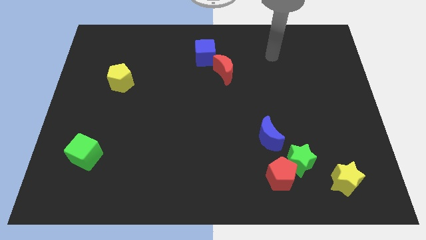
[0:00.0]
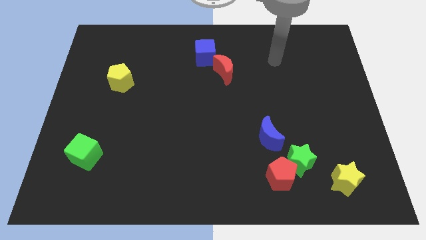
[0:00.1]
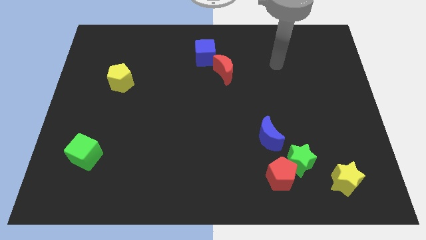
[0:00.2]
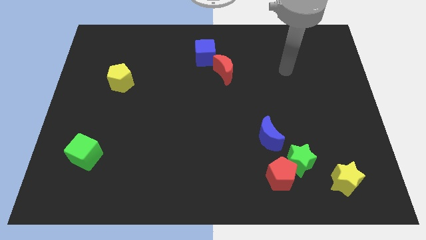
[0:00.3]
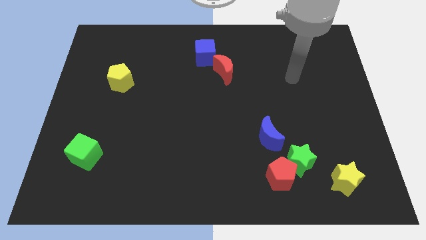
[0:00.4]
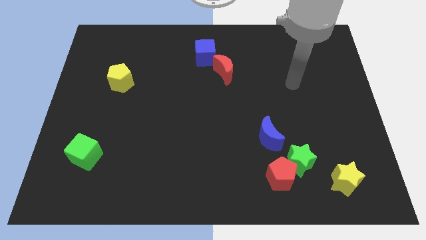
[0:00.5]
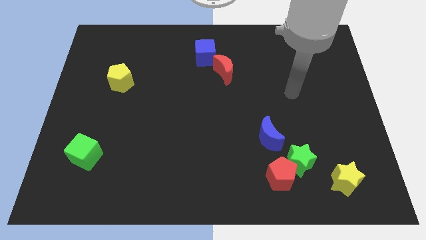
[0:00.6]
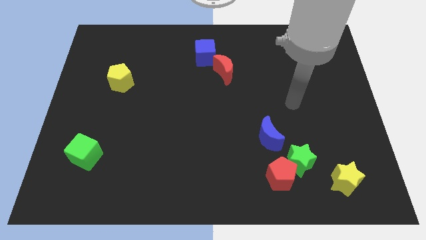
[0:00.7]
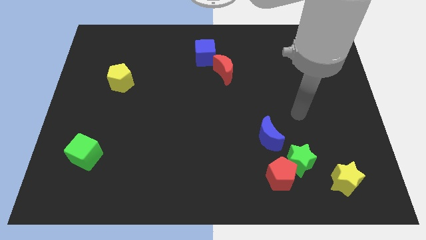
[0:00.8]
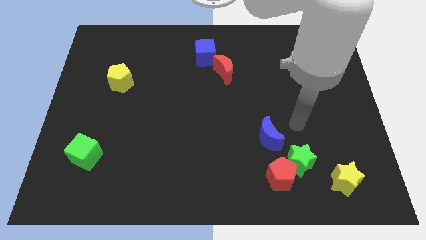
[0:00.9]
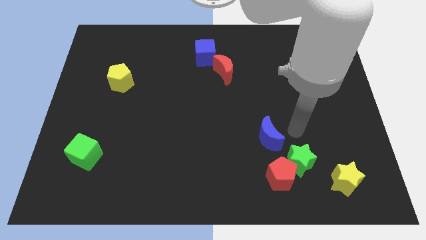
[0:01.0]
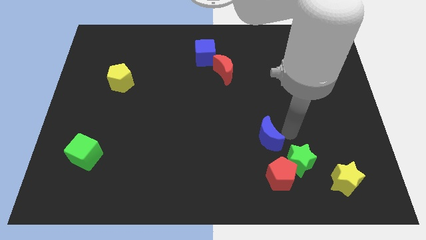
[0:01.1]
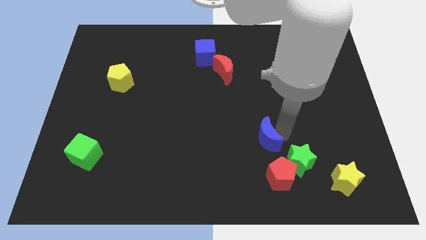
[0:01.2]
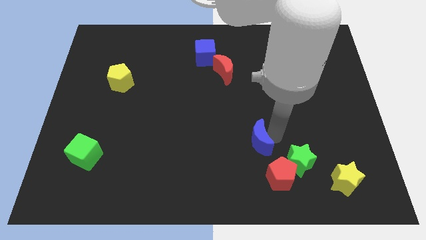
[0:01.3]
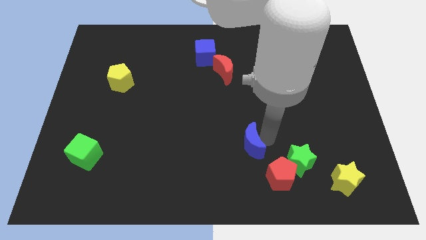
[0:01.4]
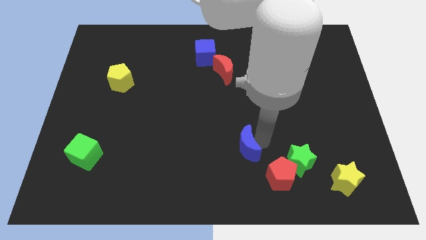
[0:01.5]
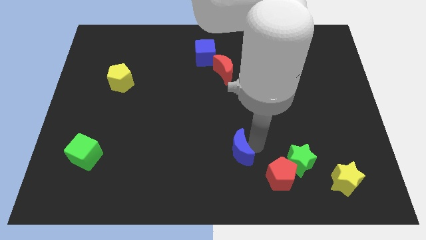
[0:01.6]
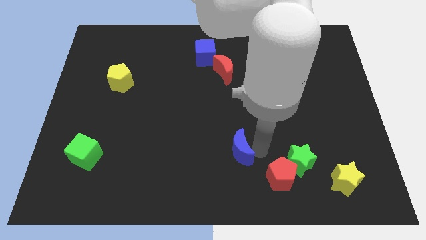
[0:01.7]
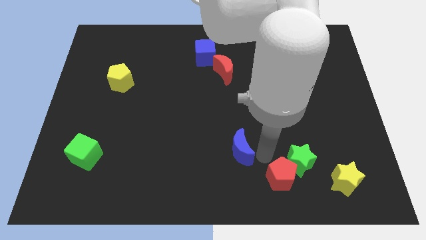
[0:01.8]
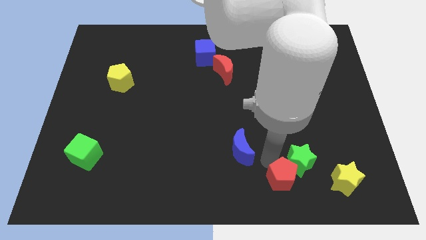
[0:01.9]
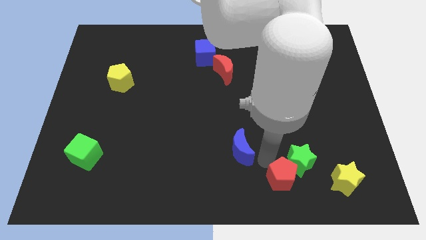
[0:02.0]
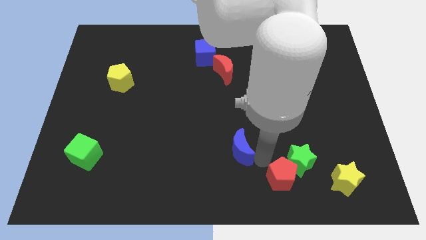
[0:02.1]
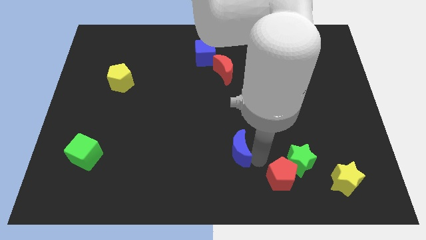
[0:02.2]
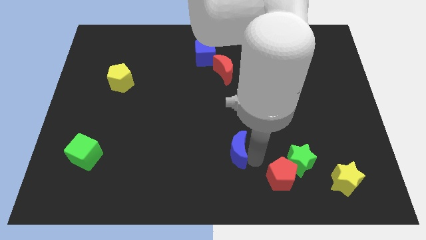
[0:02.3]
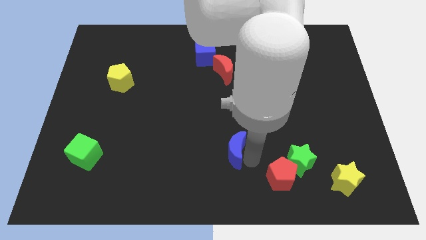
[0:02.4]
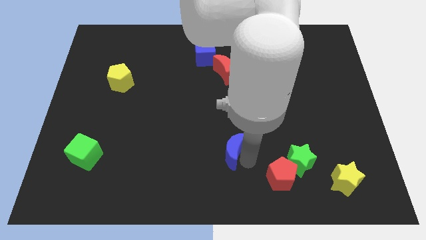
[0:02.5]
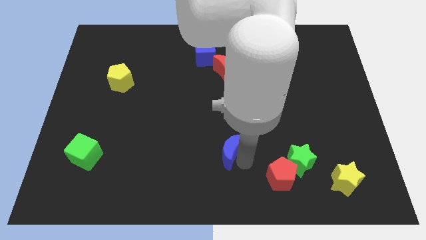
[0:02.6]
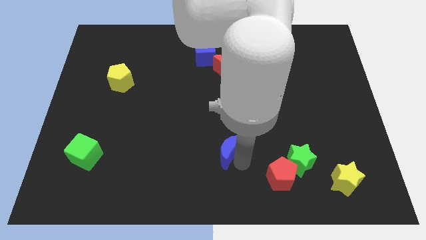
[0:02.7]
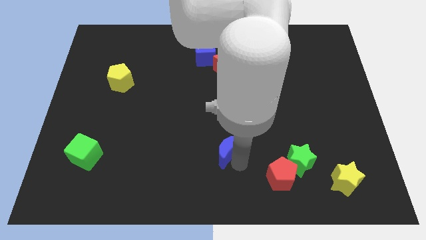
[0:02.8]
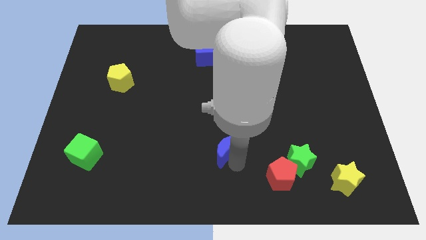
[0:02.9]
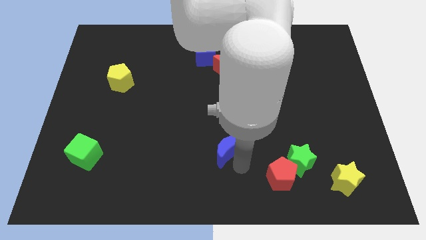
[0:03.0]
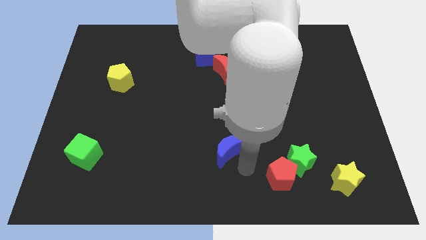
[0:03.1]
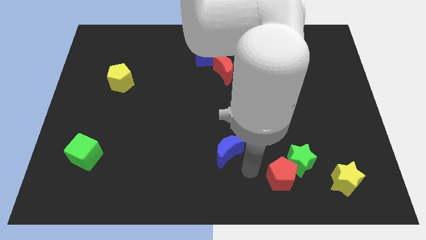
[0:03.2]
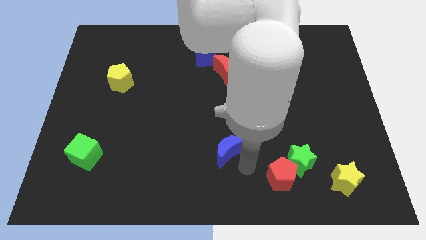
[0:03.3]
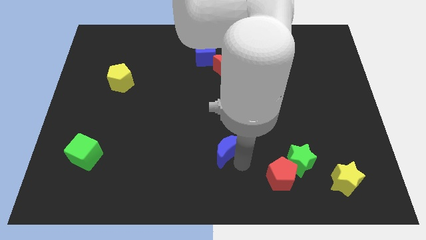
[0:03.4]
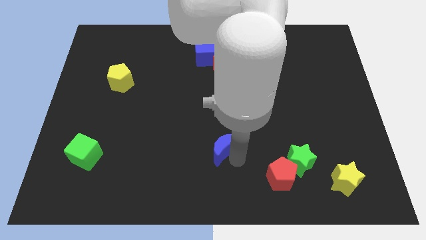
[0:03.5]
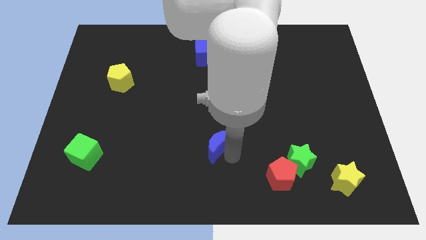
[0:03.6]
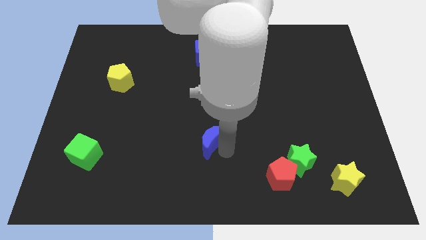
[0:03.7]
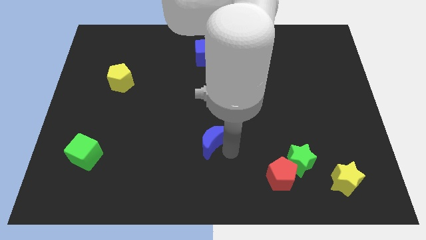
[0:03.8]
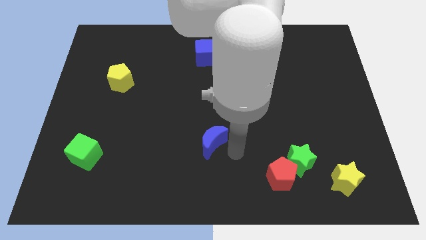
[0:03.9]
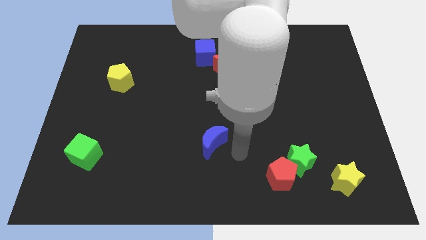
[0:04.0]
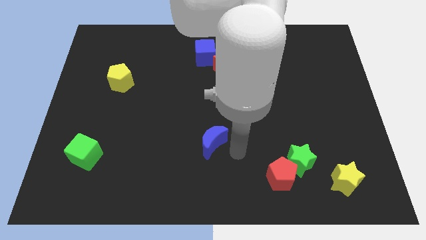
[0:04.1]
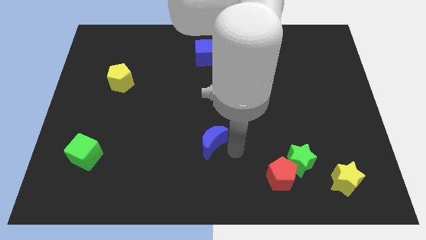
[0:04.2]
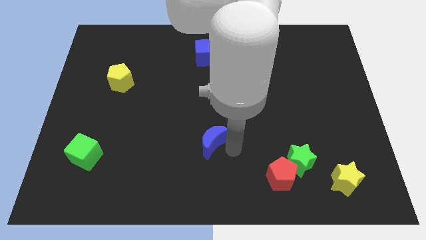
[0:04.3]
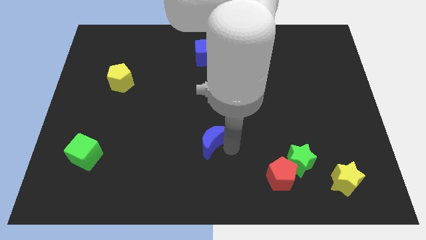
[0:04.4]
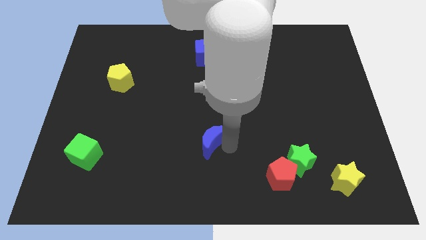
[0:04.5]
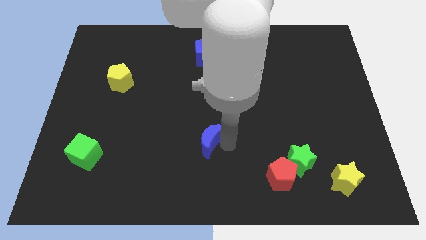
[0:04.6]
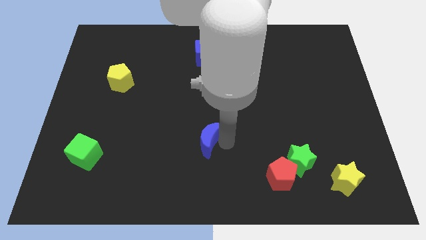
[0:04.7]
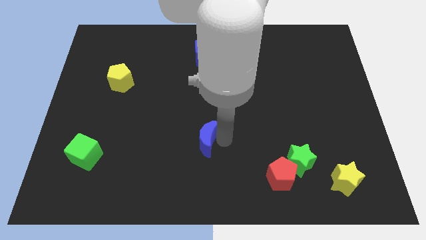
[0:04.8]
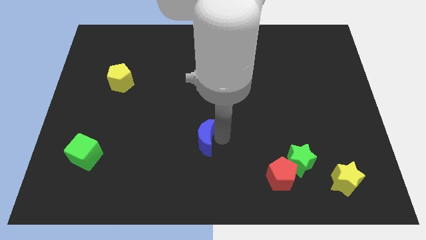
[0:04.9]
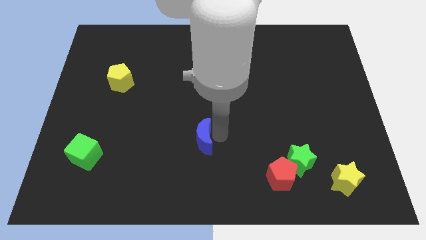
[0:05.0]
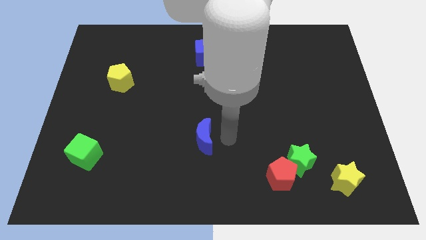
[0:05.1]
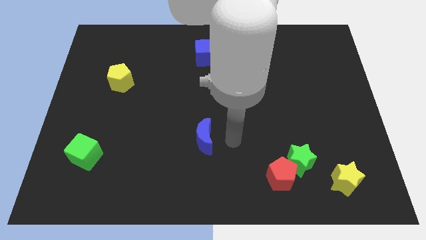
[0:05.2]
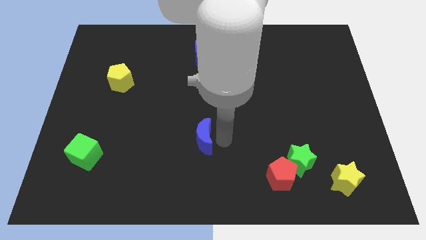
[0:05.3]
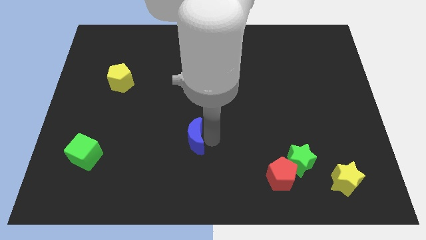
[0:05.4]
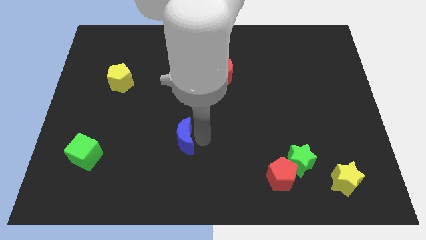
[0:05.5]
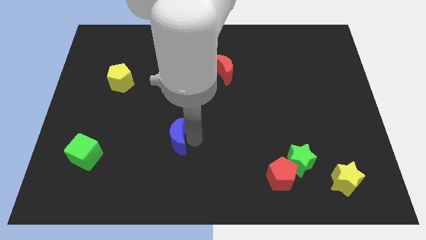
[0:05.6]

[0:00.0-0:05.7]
move the blue moon left

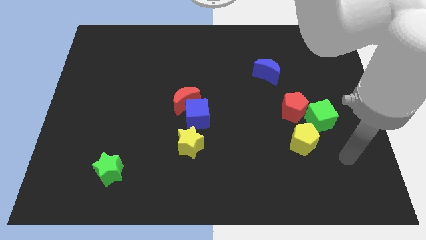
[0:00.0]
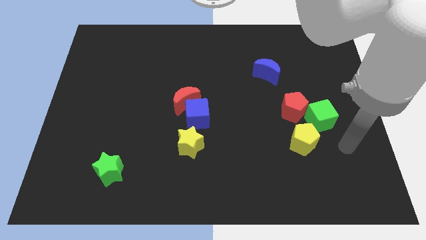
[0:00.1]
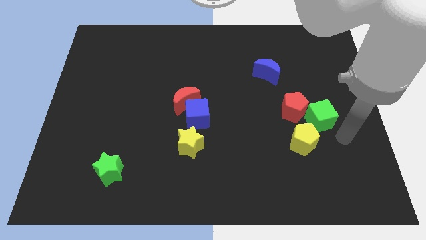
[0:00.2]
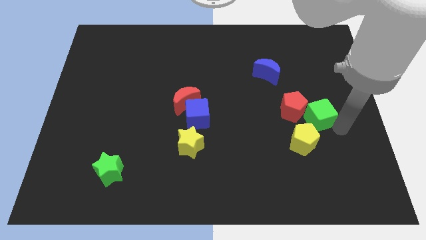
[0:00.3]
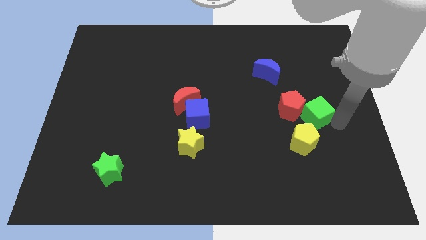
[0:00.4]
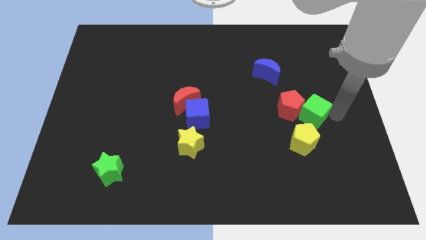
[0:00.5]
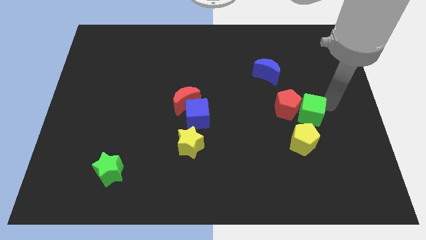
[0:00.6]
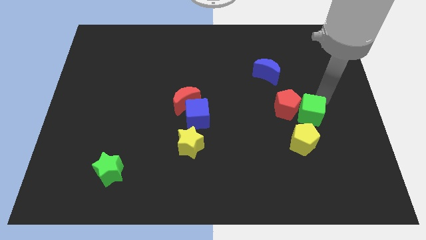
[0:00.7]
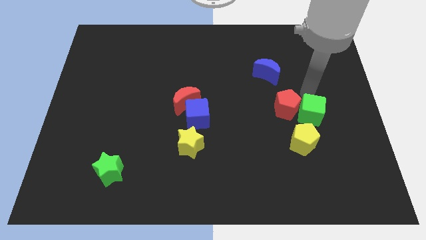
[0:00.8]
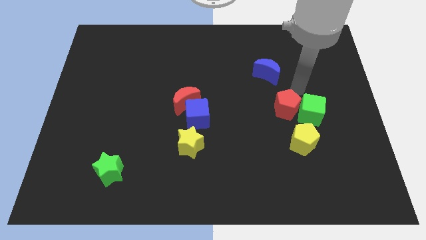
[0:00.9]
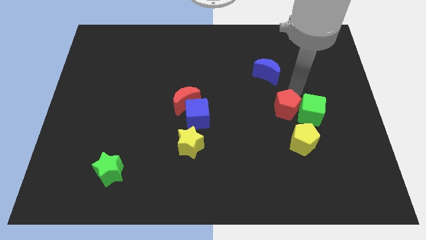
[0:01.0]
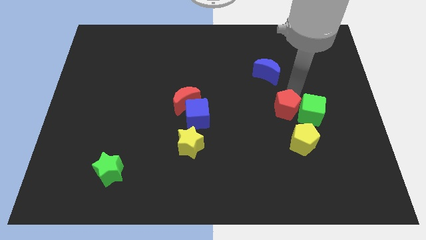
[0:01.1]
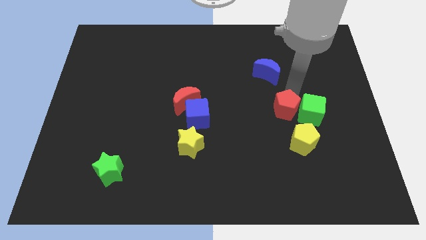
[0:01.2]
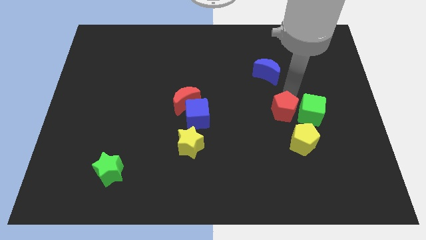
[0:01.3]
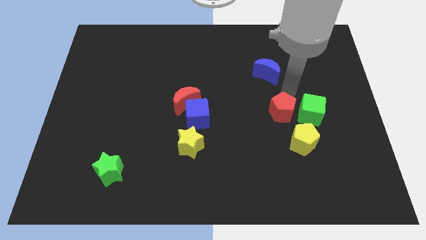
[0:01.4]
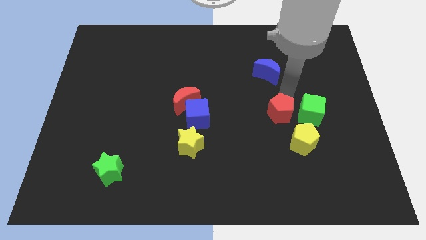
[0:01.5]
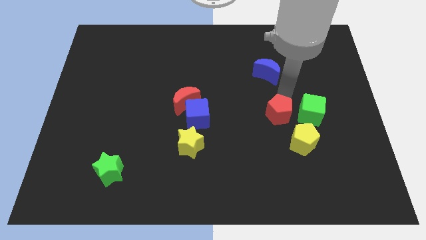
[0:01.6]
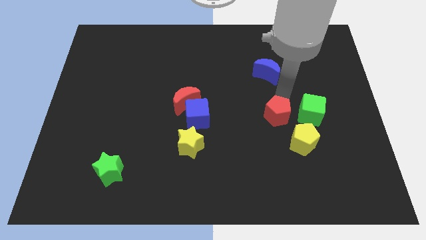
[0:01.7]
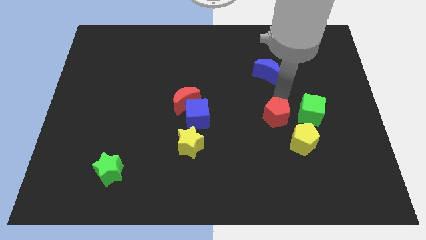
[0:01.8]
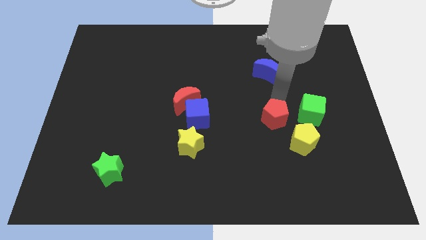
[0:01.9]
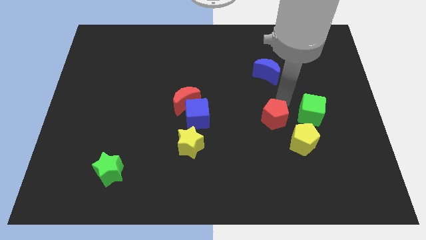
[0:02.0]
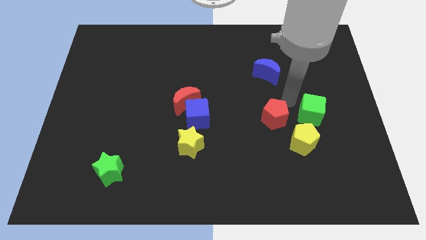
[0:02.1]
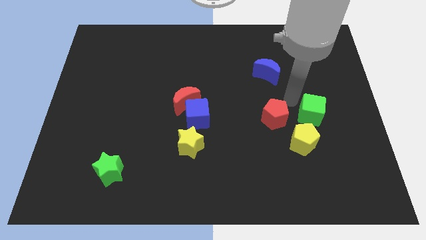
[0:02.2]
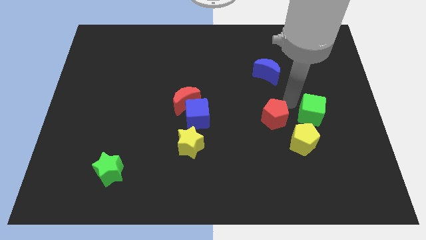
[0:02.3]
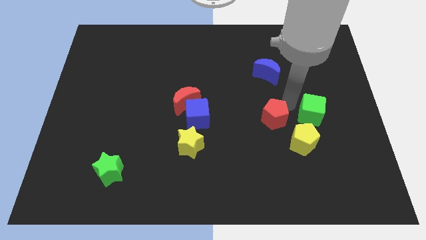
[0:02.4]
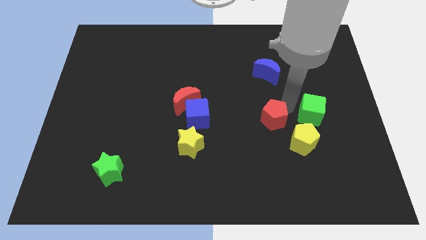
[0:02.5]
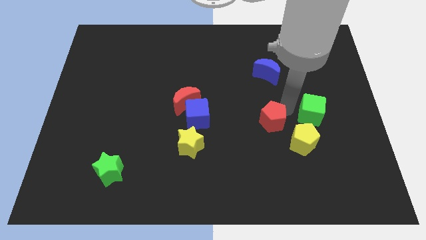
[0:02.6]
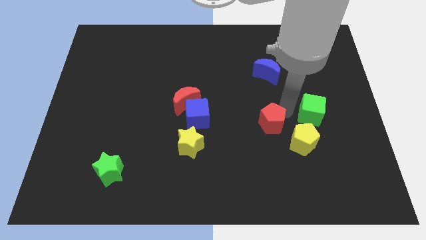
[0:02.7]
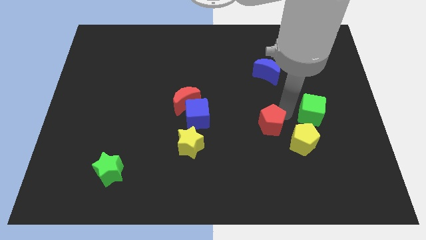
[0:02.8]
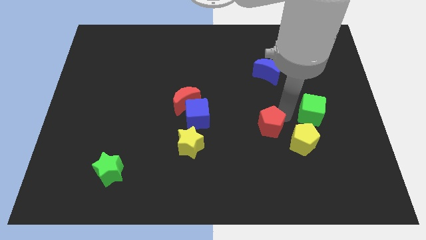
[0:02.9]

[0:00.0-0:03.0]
move the red pentagon down and left a little
